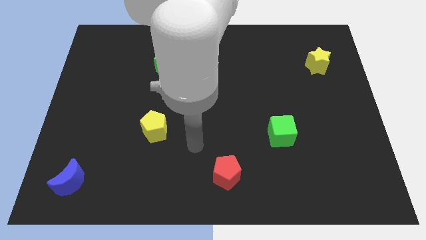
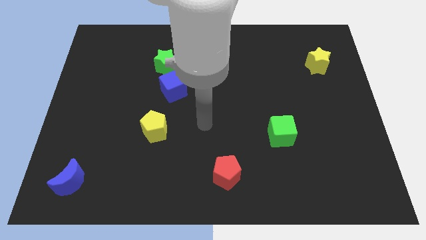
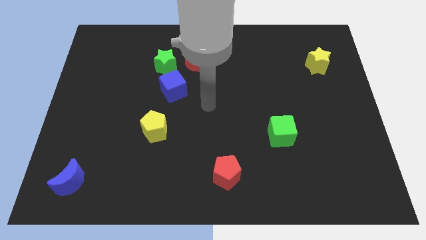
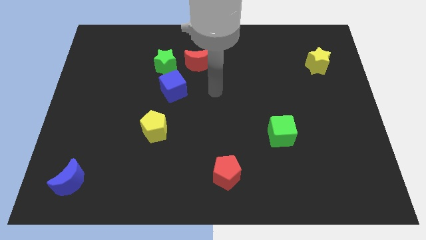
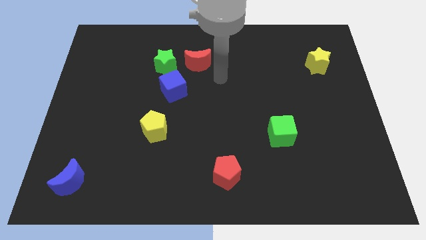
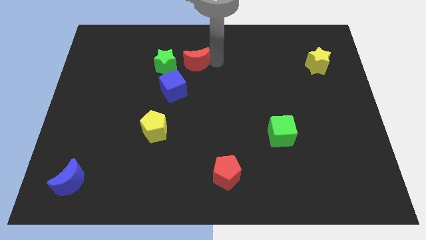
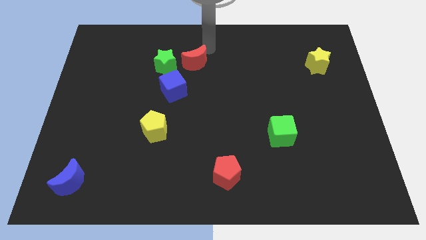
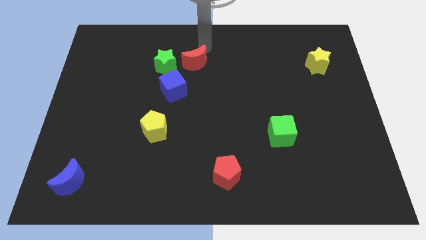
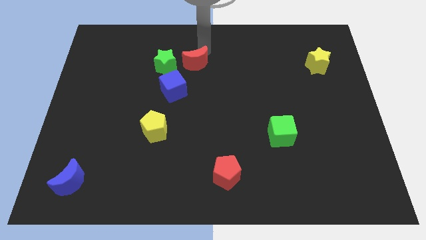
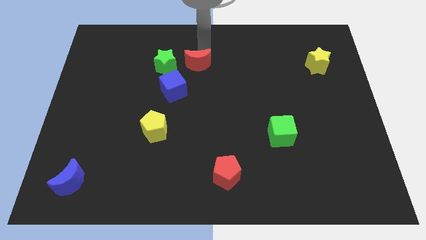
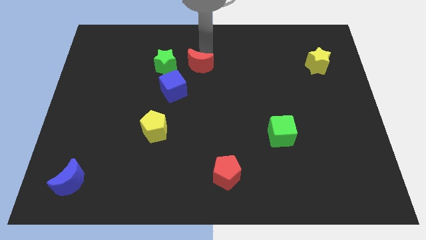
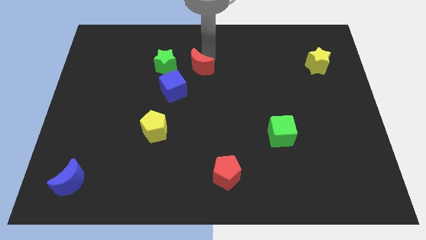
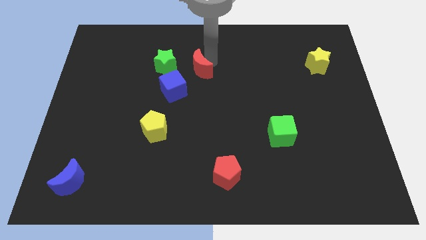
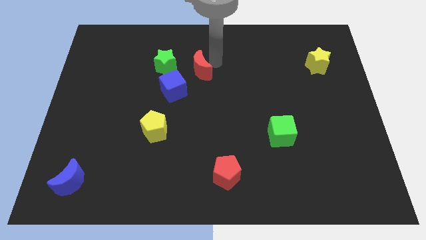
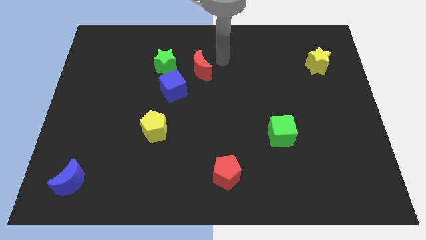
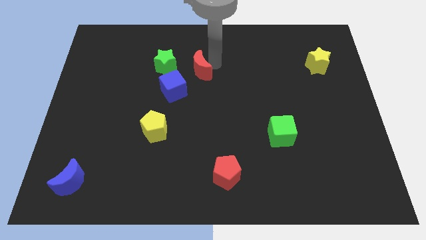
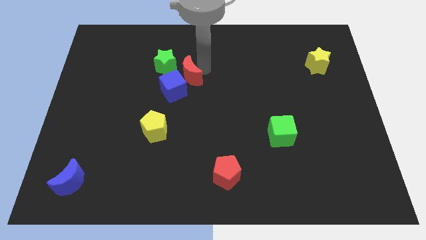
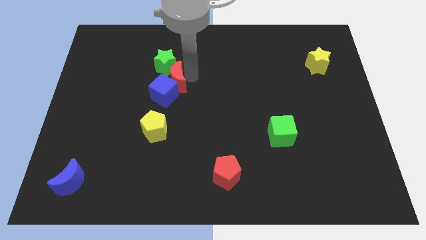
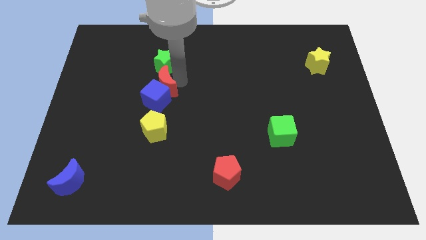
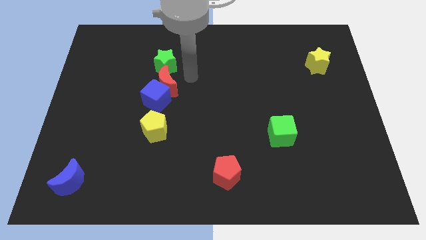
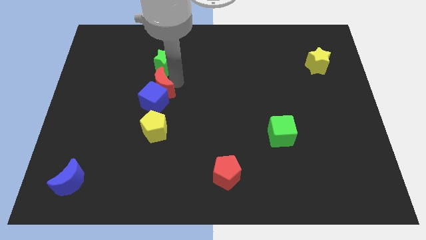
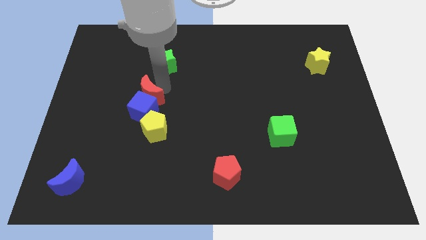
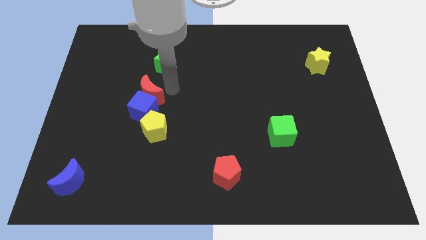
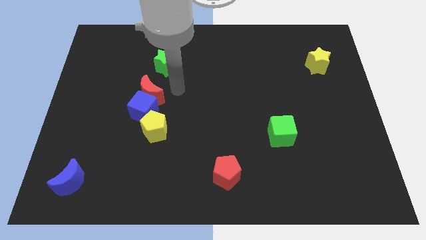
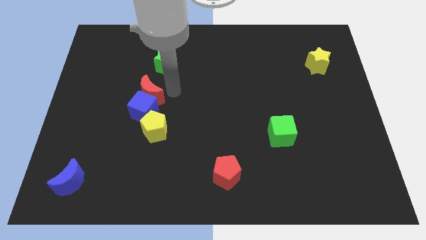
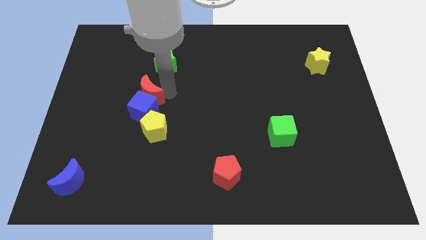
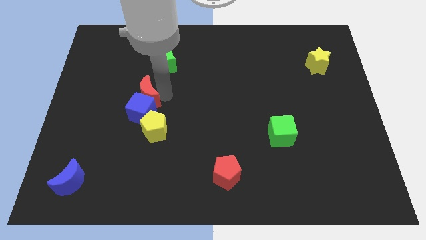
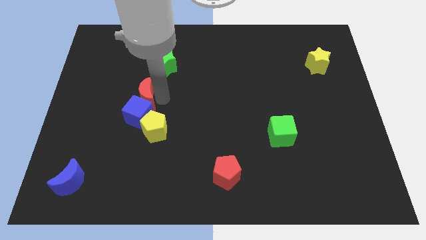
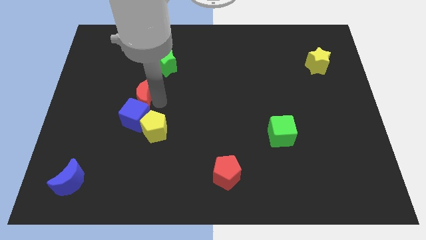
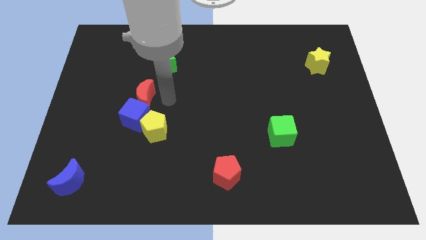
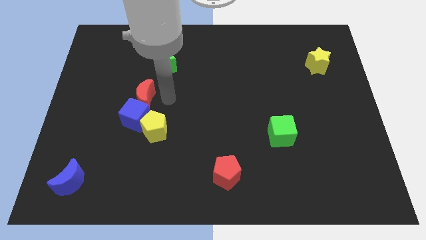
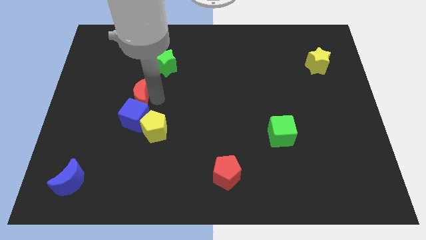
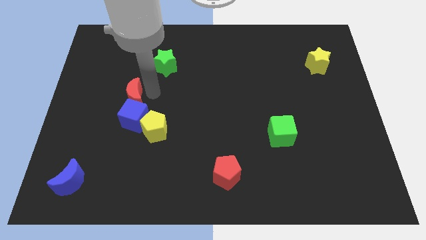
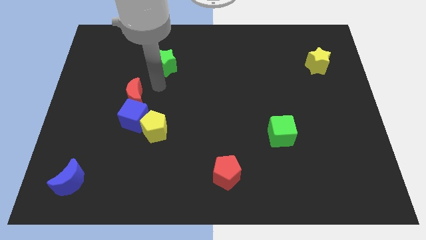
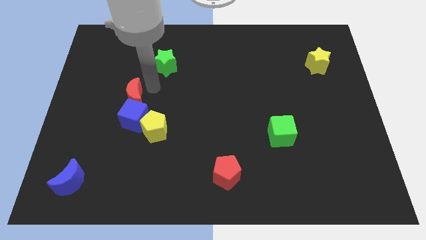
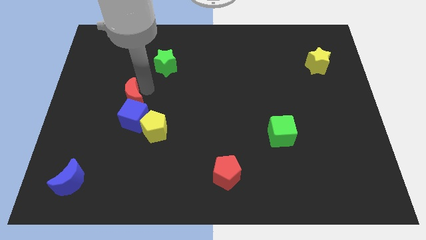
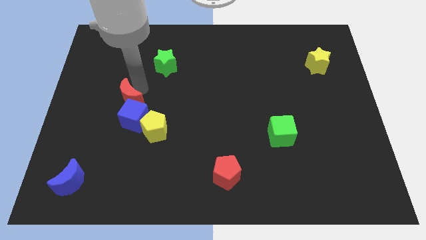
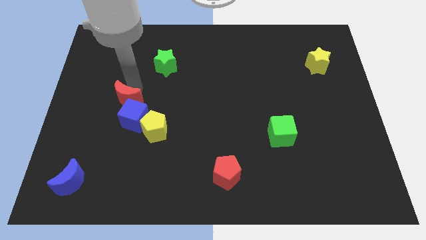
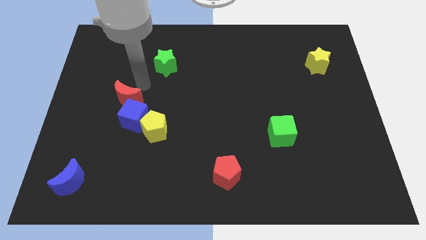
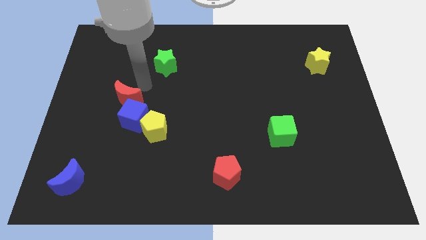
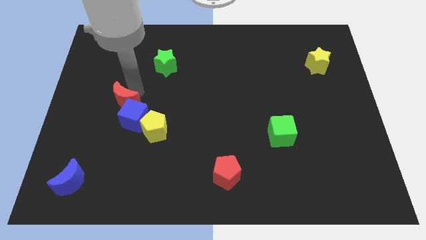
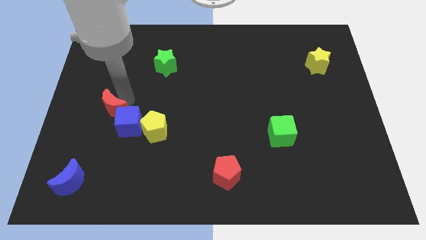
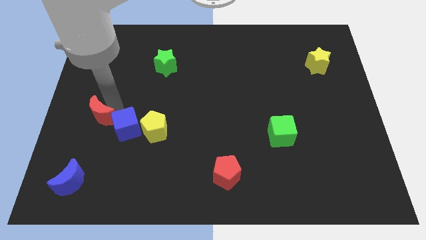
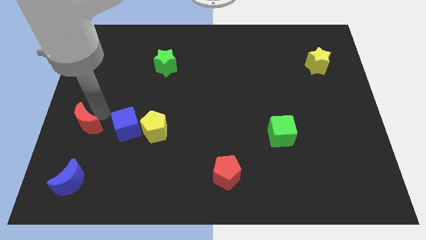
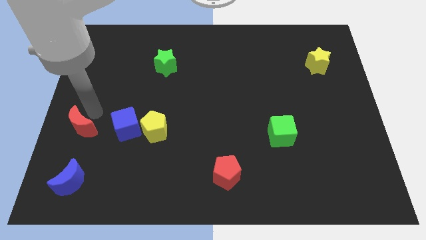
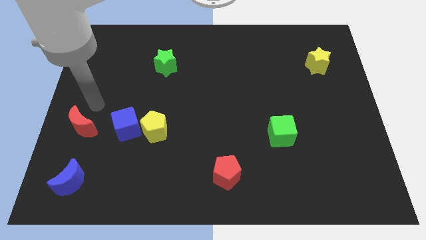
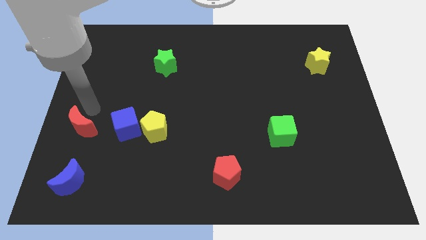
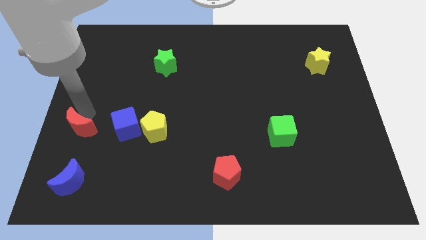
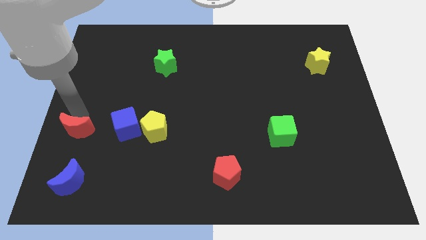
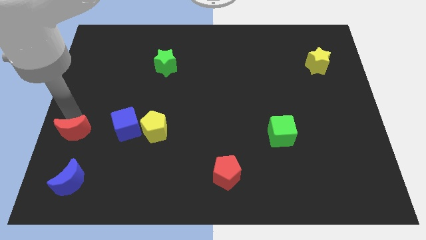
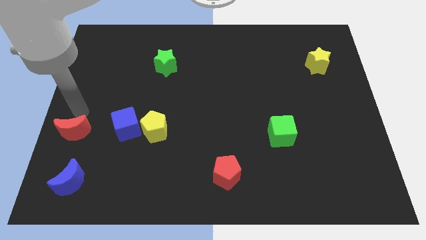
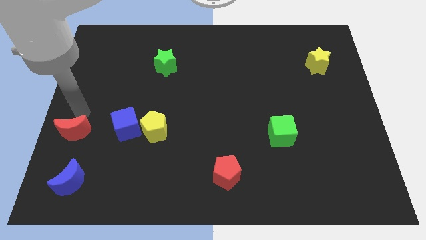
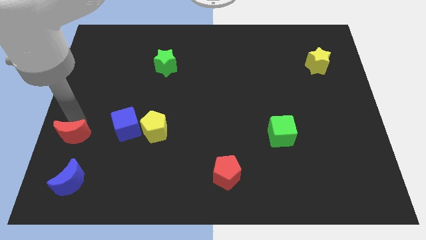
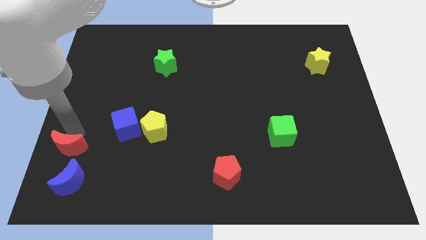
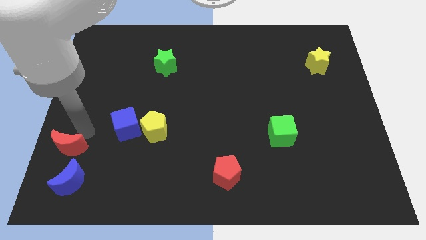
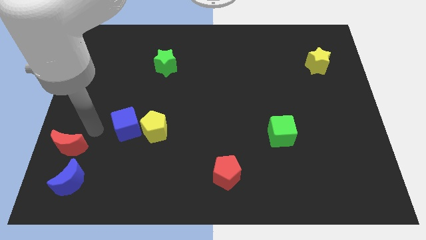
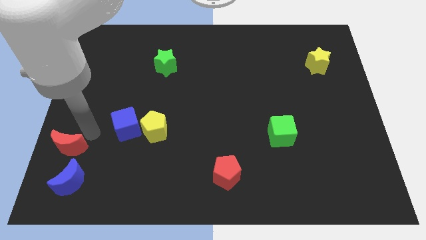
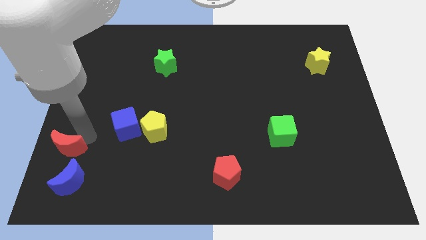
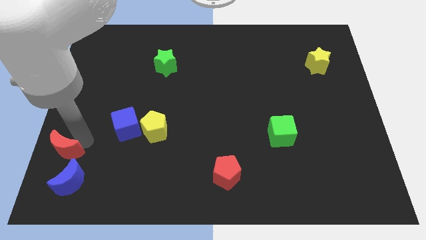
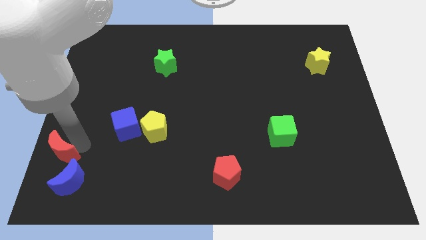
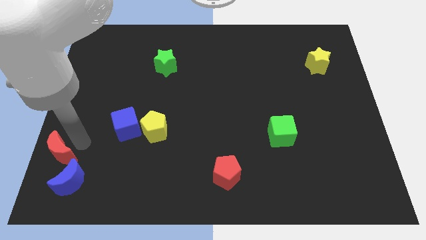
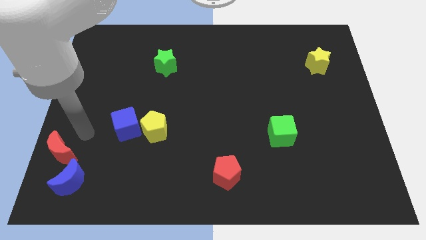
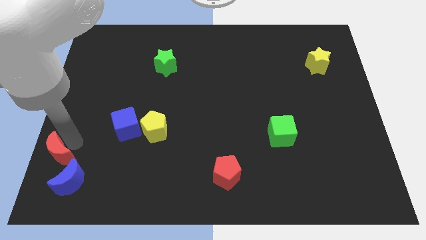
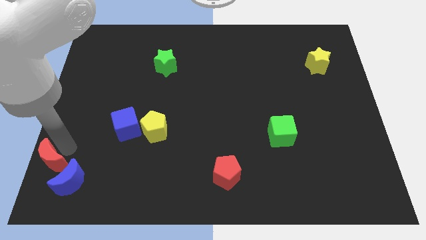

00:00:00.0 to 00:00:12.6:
move the red moon to the bottom left corner
